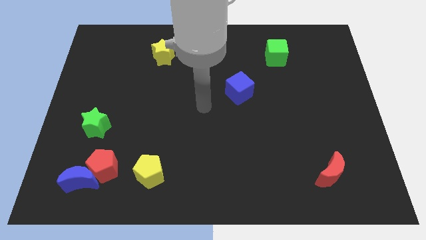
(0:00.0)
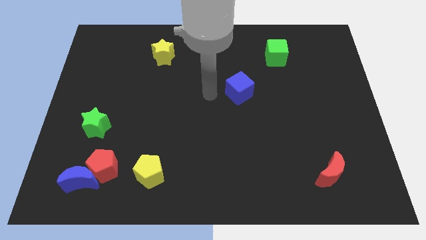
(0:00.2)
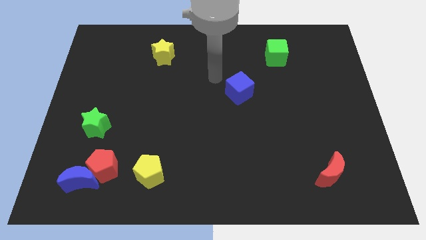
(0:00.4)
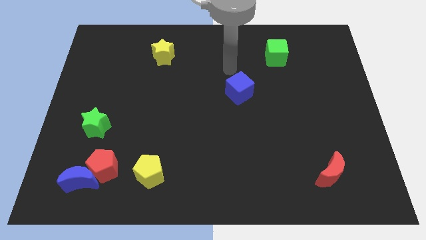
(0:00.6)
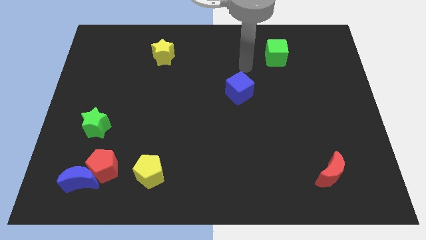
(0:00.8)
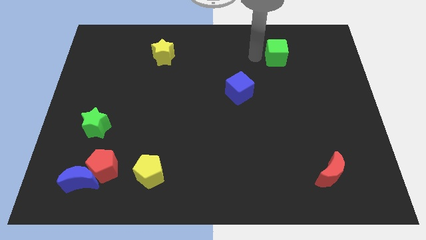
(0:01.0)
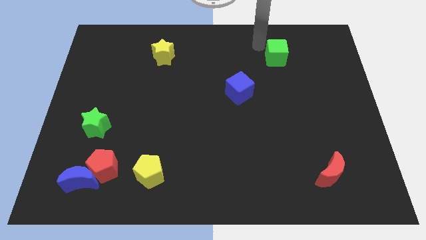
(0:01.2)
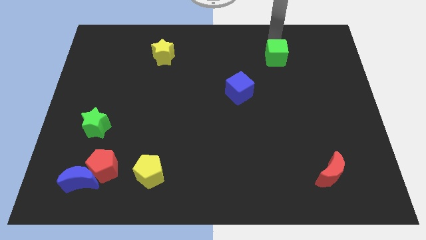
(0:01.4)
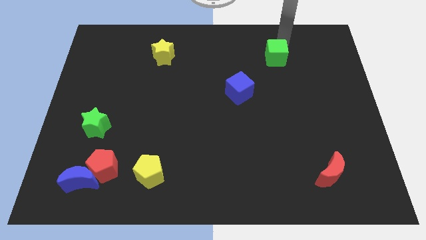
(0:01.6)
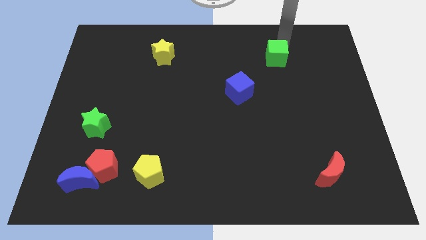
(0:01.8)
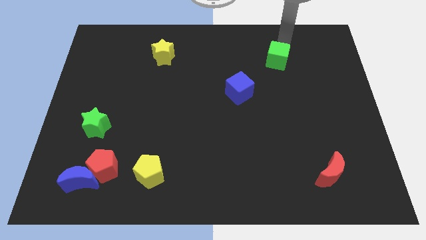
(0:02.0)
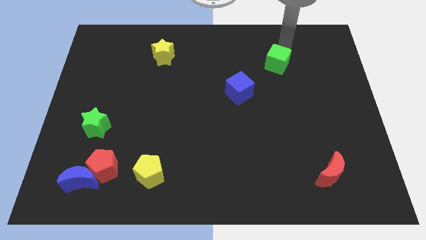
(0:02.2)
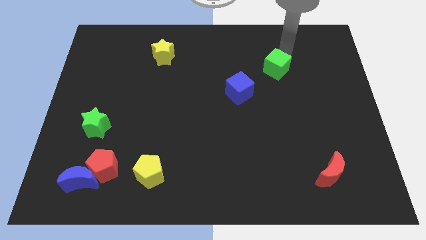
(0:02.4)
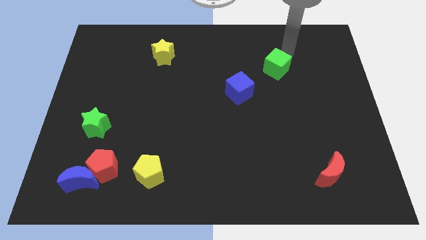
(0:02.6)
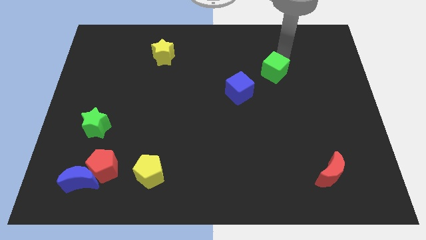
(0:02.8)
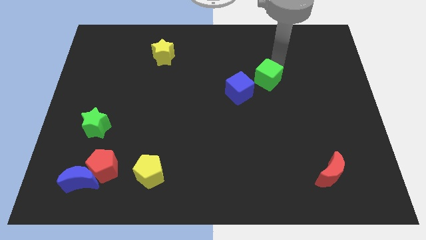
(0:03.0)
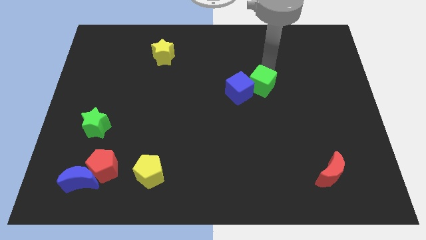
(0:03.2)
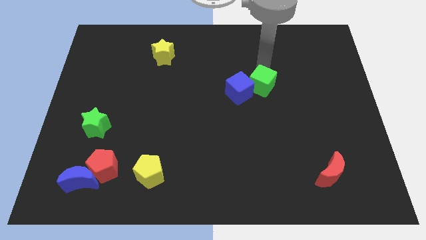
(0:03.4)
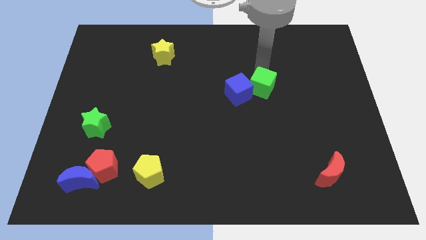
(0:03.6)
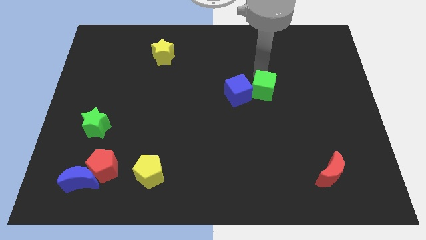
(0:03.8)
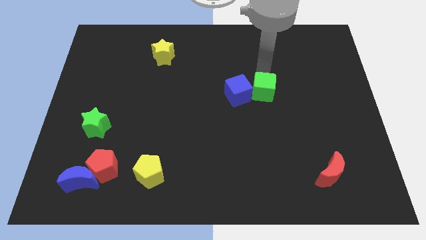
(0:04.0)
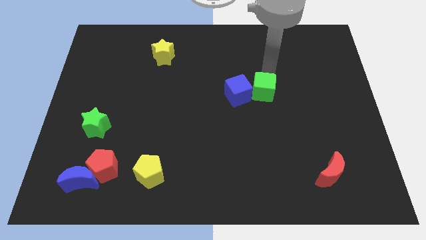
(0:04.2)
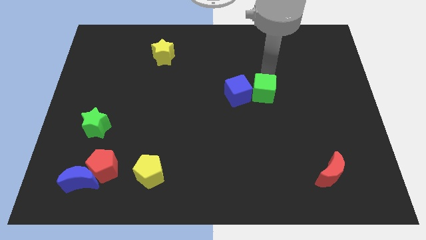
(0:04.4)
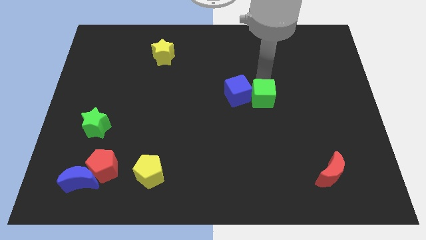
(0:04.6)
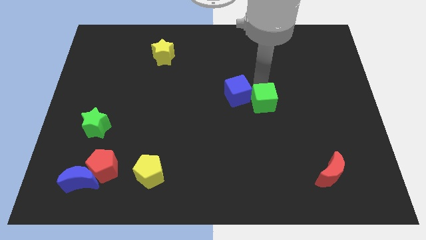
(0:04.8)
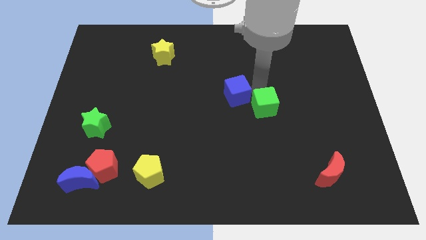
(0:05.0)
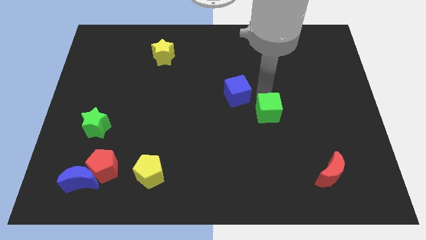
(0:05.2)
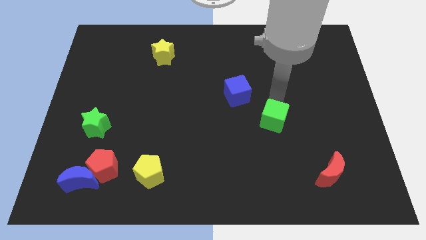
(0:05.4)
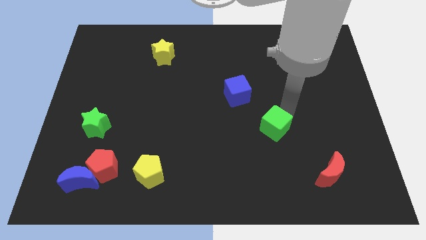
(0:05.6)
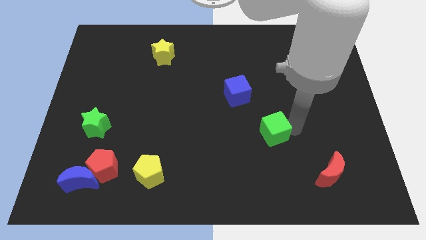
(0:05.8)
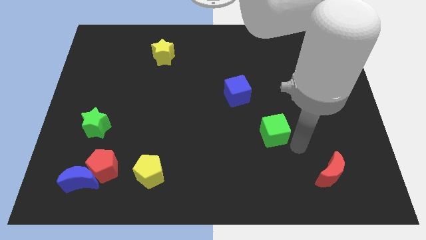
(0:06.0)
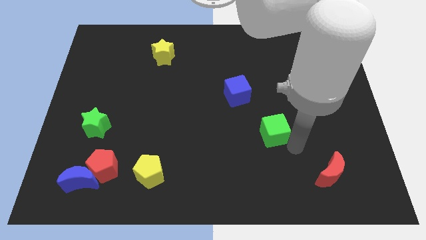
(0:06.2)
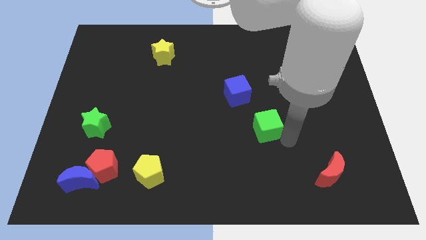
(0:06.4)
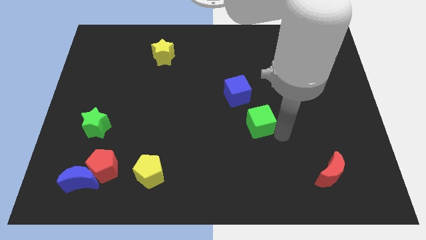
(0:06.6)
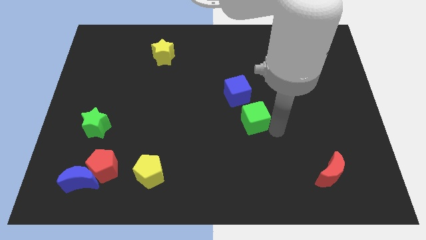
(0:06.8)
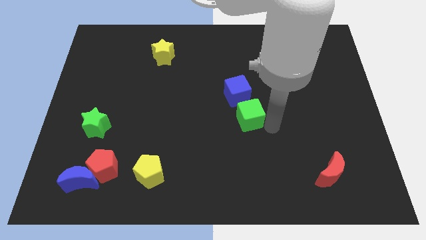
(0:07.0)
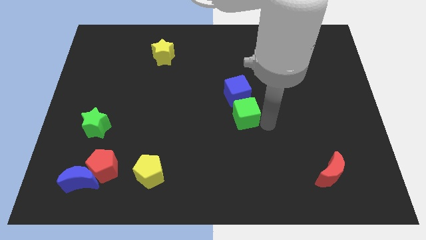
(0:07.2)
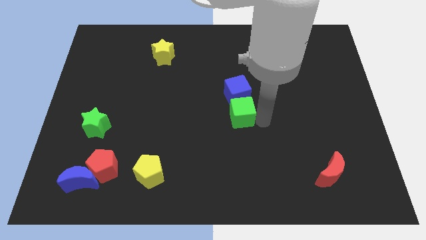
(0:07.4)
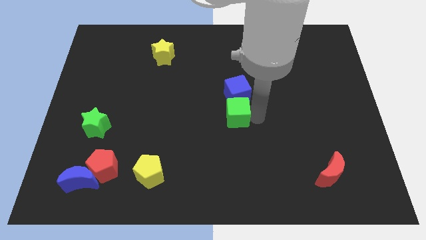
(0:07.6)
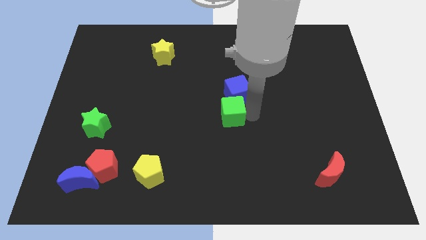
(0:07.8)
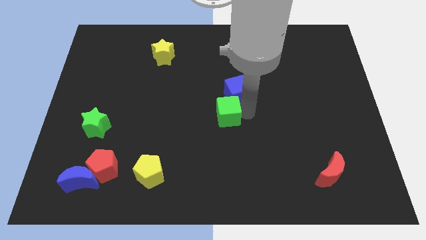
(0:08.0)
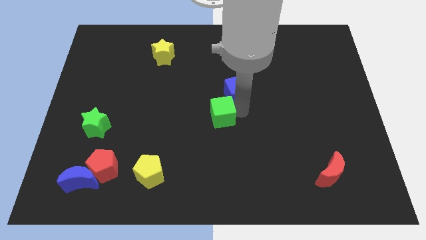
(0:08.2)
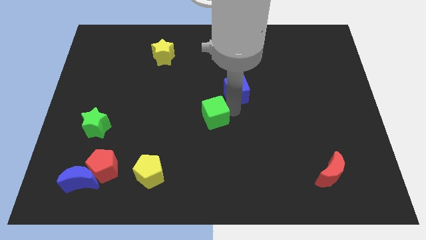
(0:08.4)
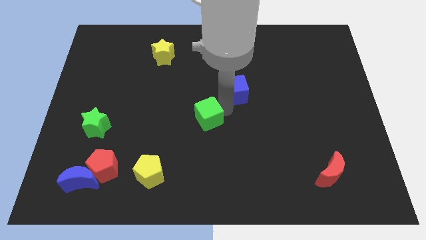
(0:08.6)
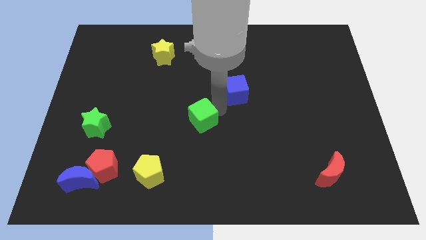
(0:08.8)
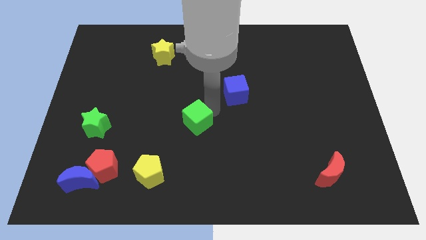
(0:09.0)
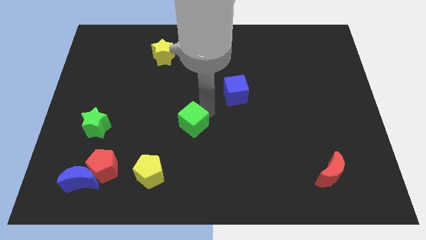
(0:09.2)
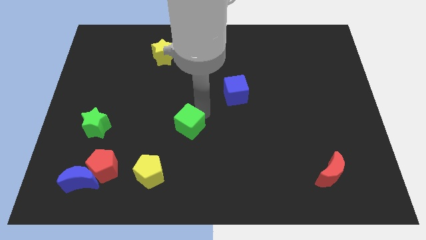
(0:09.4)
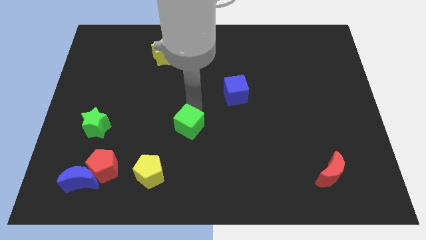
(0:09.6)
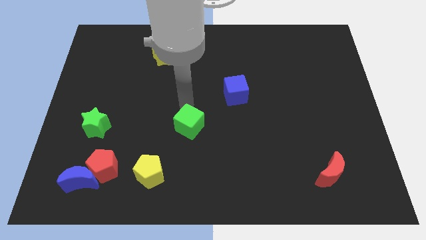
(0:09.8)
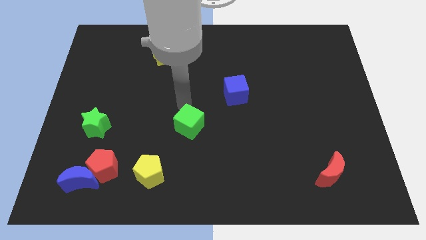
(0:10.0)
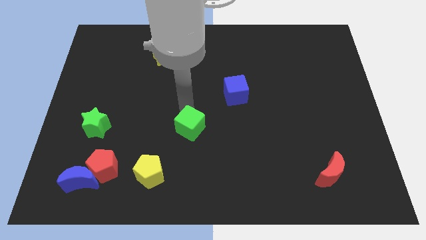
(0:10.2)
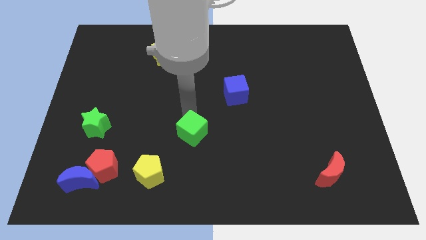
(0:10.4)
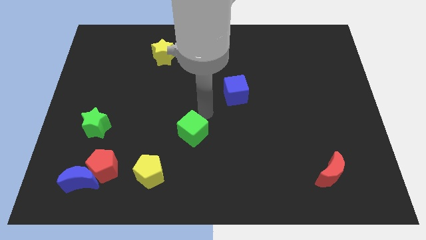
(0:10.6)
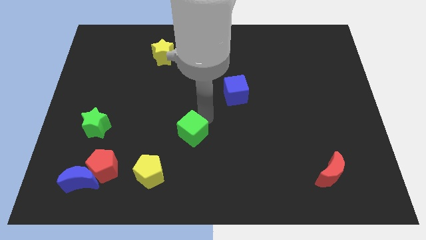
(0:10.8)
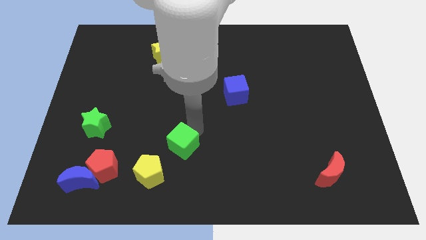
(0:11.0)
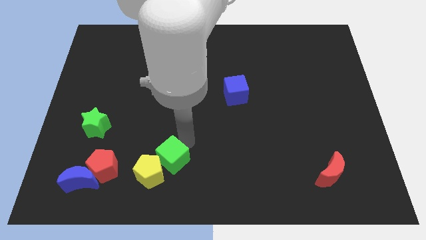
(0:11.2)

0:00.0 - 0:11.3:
put the green cube towards the yellow pentagon

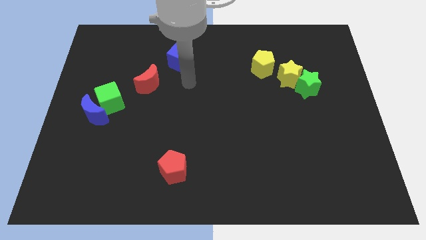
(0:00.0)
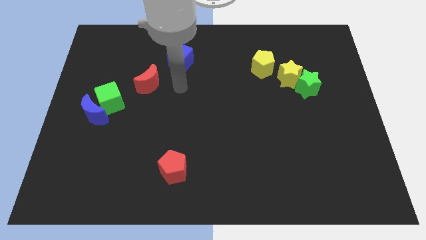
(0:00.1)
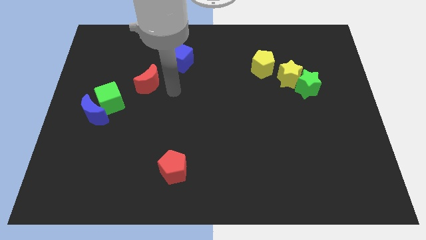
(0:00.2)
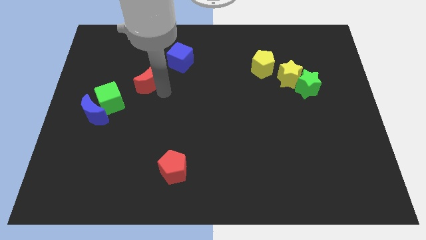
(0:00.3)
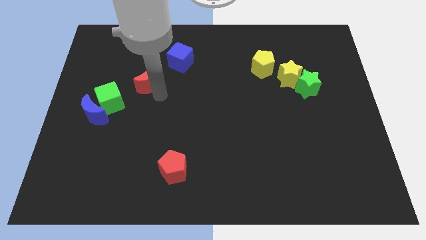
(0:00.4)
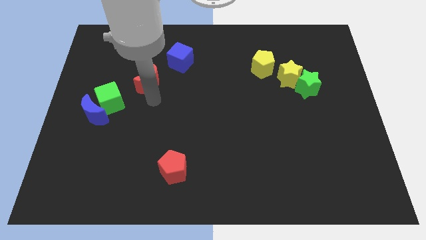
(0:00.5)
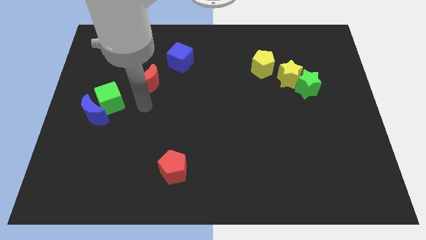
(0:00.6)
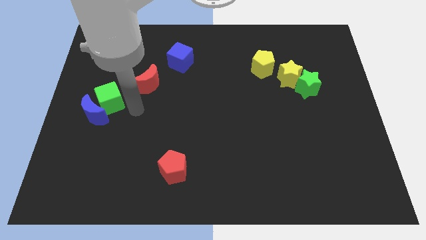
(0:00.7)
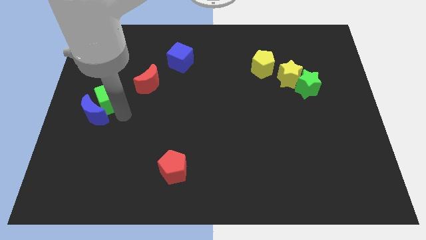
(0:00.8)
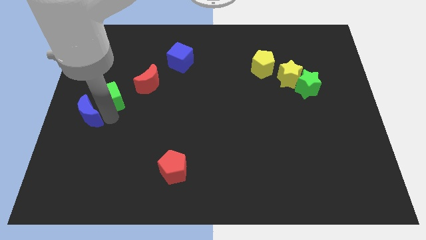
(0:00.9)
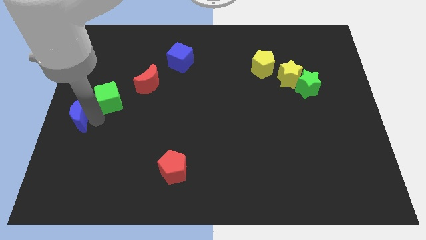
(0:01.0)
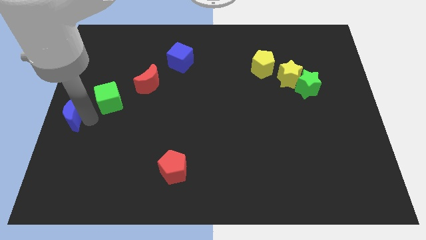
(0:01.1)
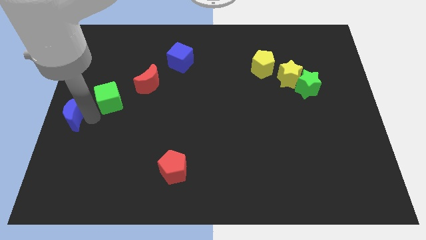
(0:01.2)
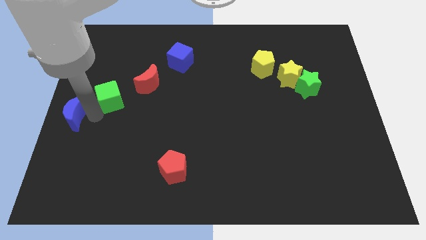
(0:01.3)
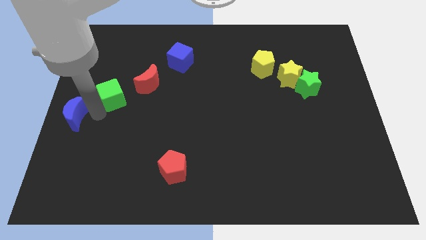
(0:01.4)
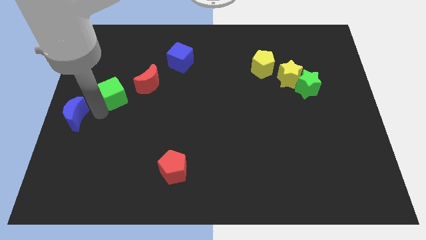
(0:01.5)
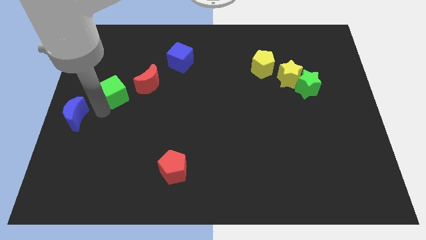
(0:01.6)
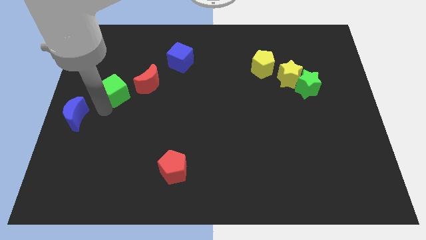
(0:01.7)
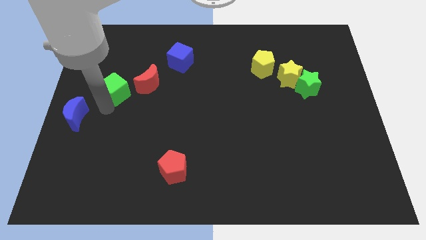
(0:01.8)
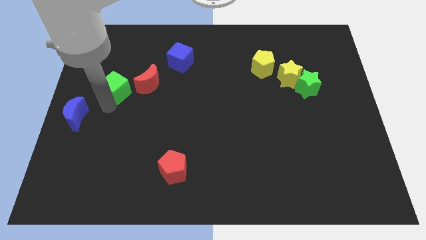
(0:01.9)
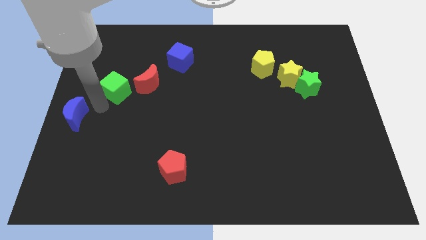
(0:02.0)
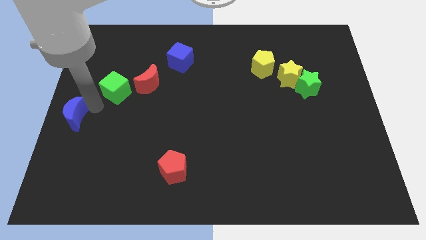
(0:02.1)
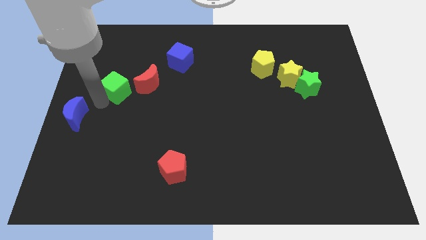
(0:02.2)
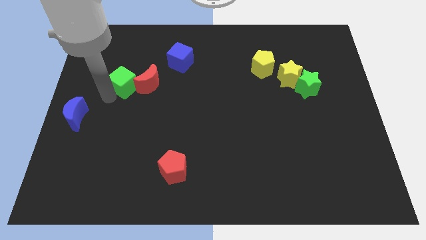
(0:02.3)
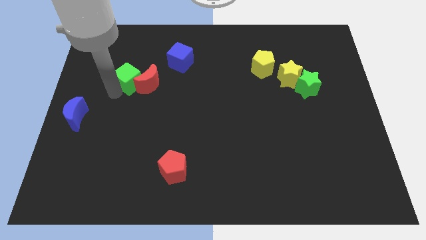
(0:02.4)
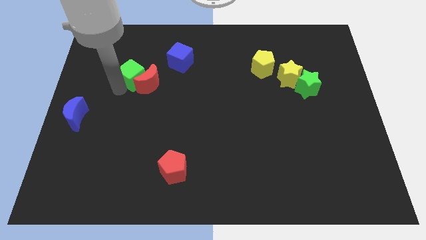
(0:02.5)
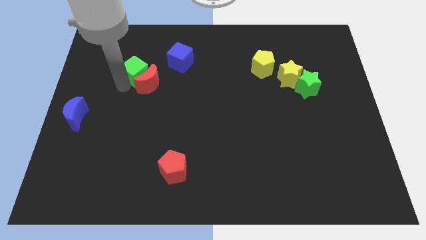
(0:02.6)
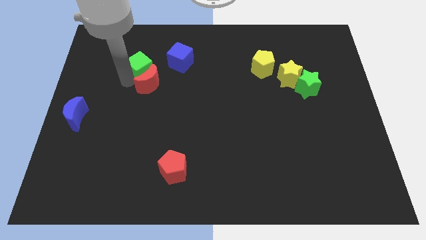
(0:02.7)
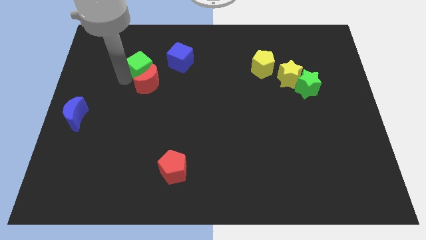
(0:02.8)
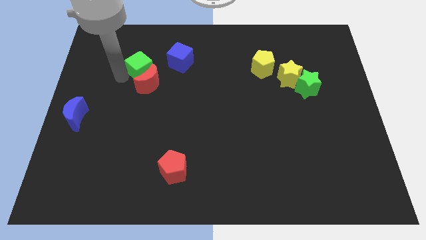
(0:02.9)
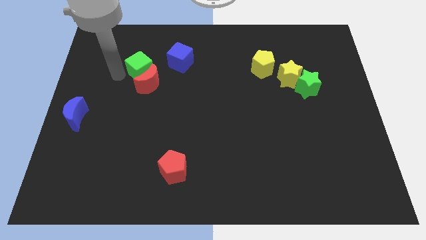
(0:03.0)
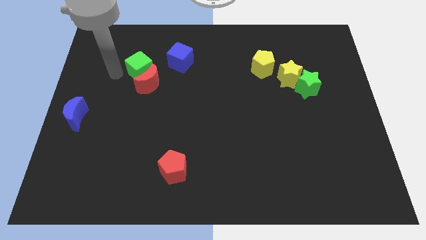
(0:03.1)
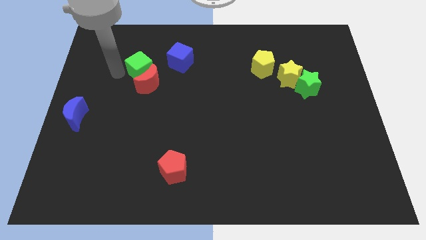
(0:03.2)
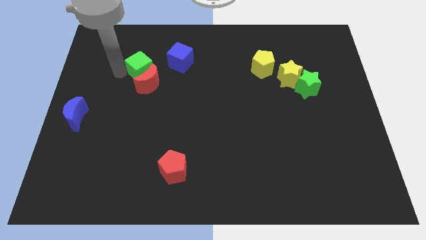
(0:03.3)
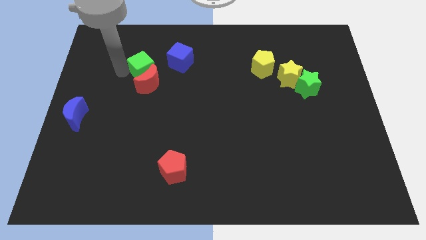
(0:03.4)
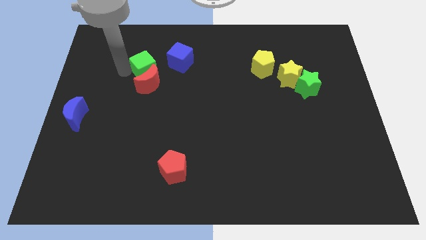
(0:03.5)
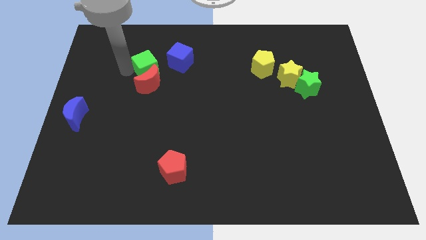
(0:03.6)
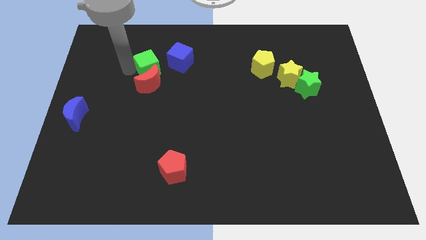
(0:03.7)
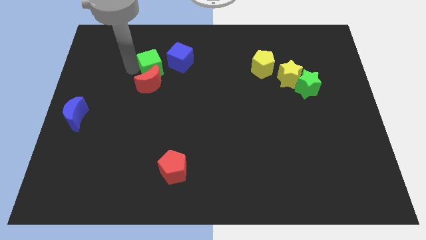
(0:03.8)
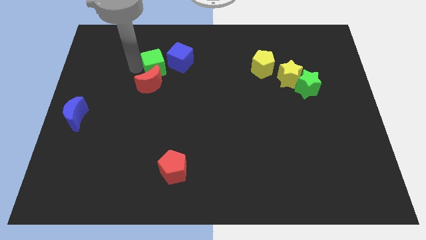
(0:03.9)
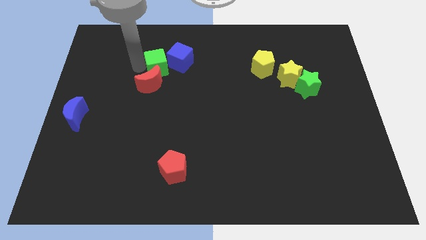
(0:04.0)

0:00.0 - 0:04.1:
push the green cube to the blue cube
